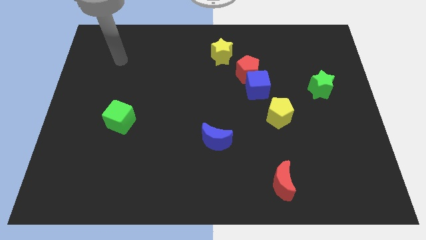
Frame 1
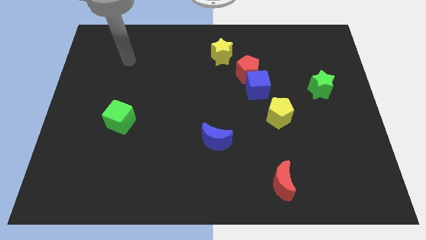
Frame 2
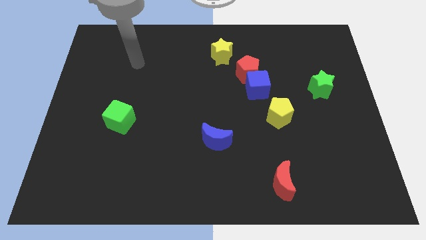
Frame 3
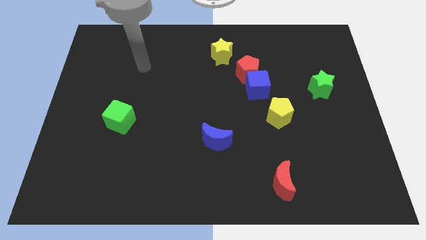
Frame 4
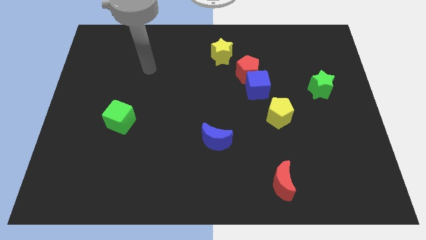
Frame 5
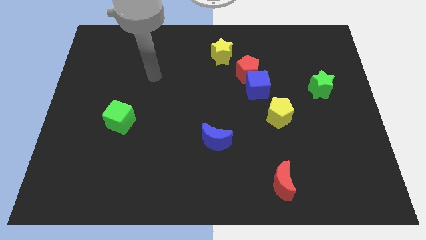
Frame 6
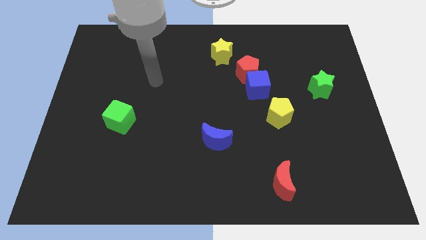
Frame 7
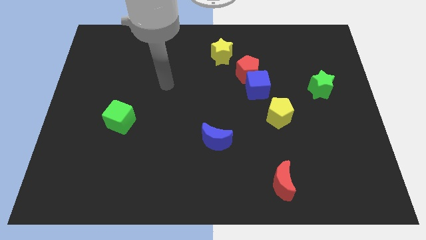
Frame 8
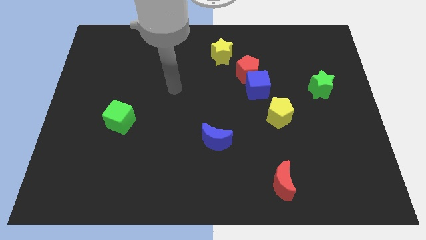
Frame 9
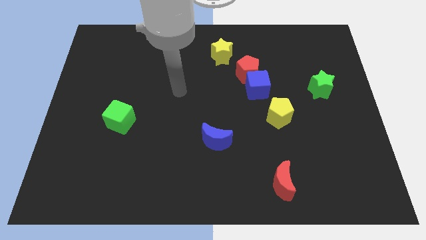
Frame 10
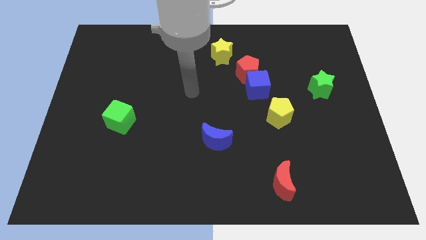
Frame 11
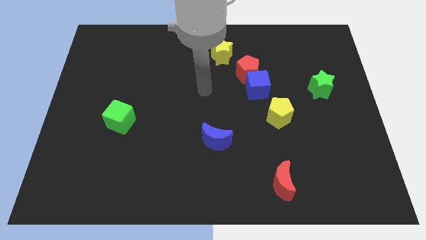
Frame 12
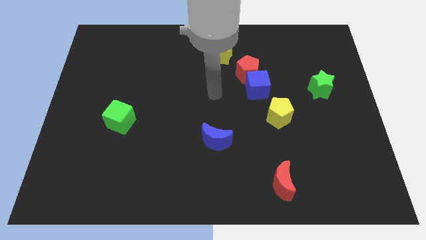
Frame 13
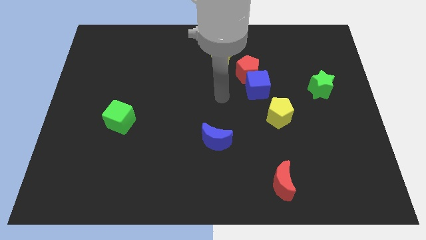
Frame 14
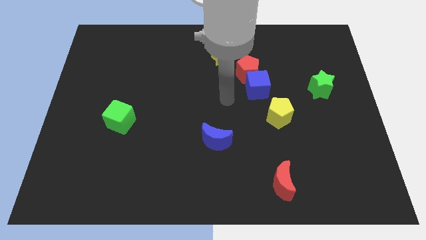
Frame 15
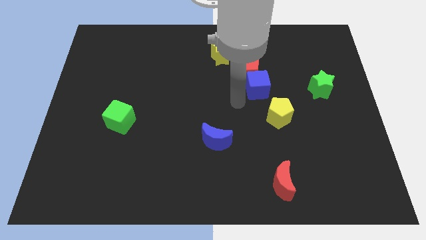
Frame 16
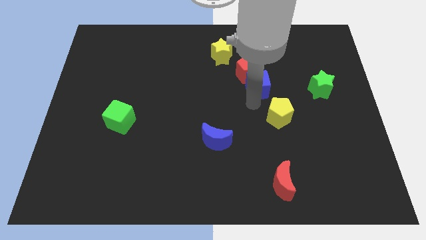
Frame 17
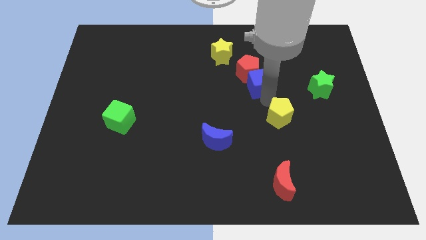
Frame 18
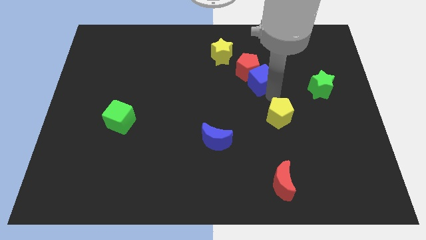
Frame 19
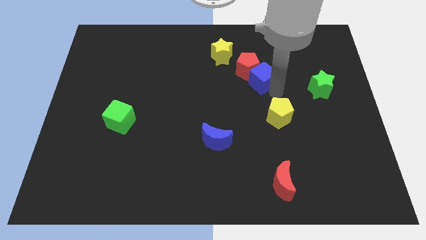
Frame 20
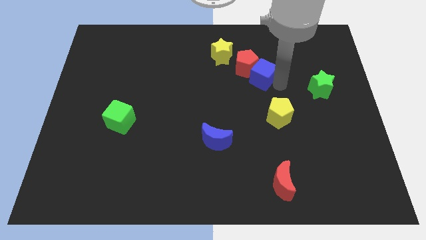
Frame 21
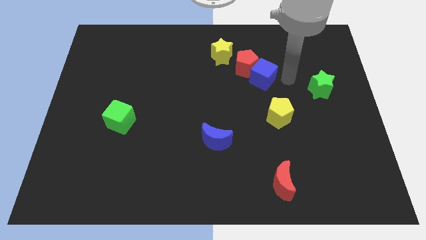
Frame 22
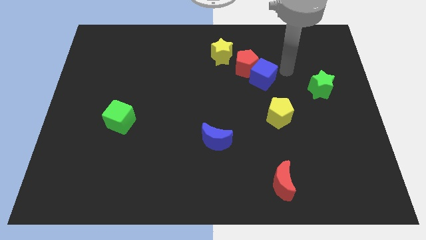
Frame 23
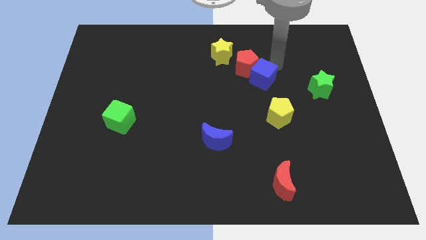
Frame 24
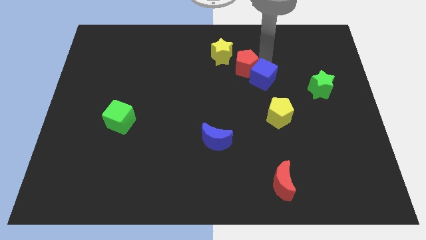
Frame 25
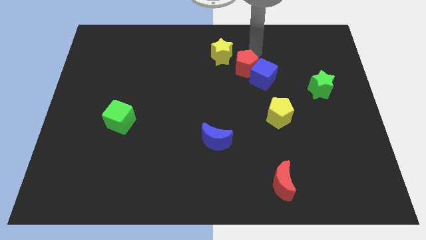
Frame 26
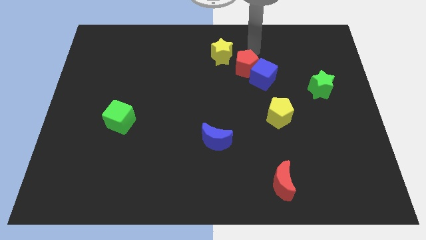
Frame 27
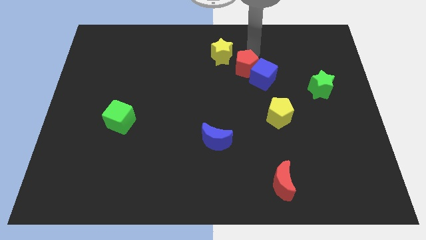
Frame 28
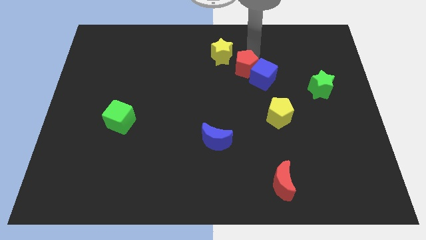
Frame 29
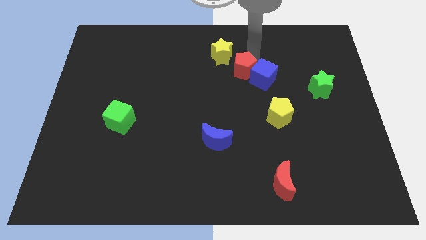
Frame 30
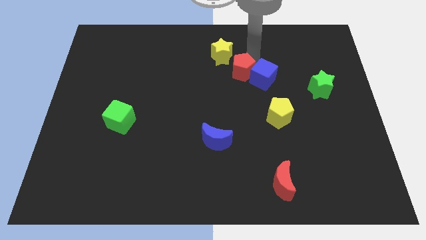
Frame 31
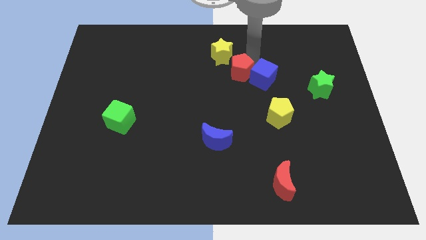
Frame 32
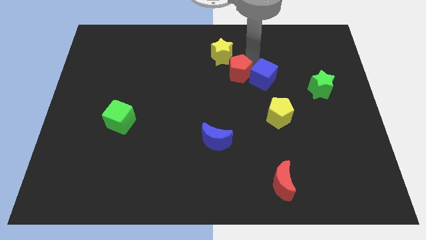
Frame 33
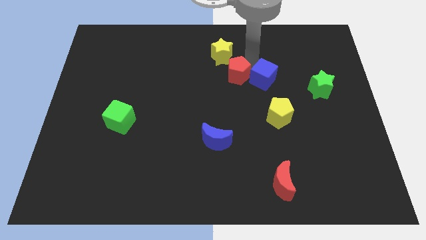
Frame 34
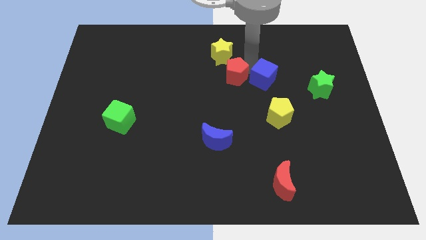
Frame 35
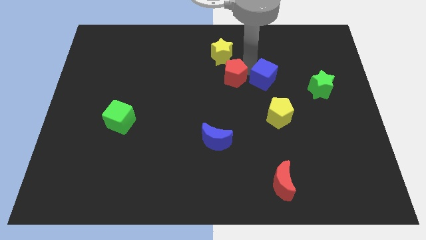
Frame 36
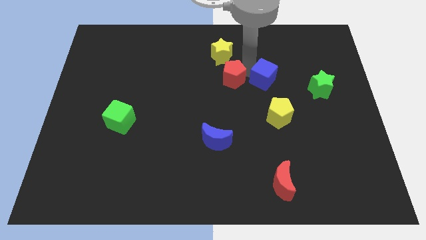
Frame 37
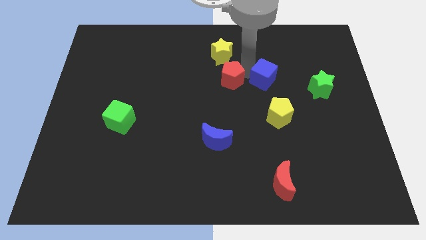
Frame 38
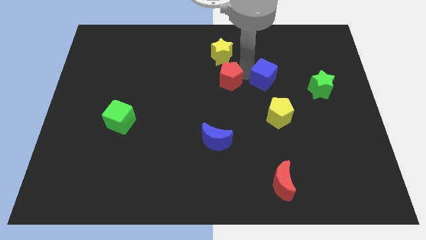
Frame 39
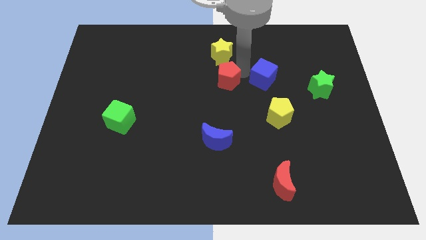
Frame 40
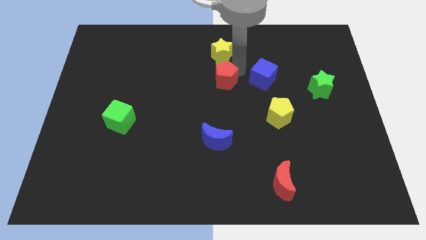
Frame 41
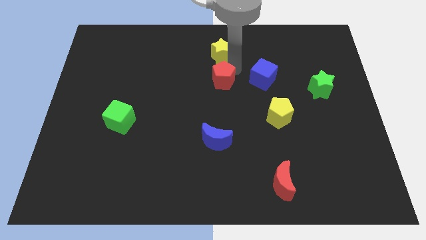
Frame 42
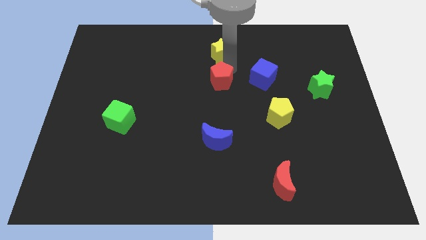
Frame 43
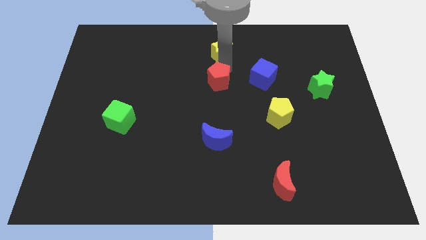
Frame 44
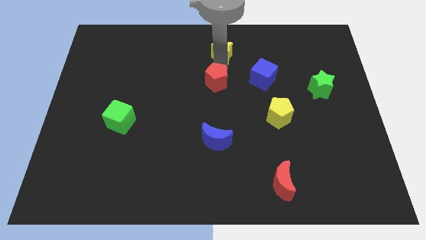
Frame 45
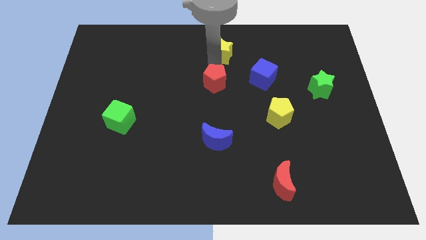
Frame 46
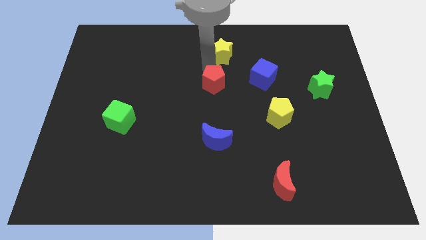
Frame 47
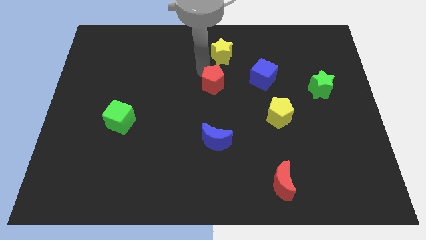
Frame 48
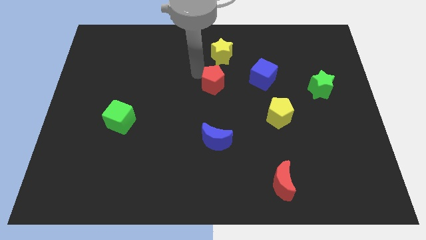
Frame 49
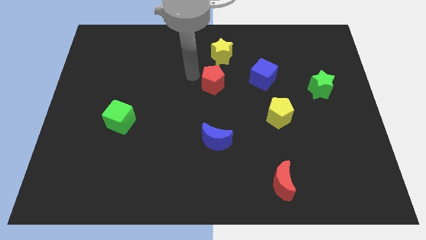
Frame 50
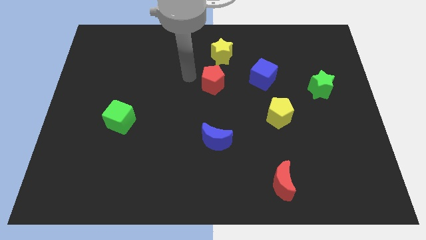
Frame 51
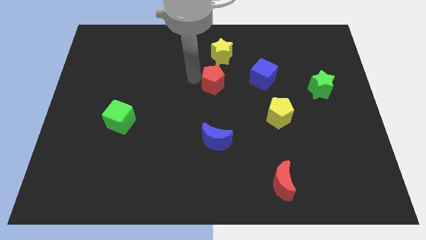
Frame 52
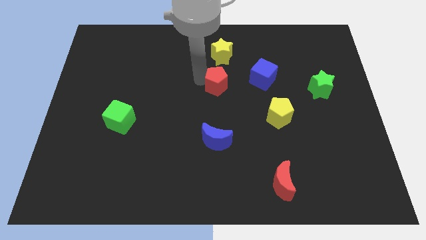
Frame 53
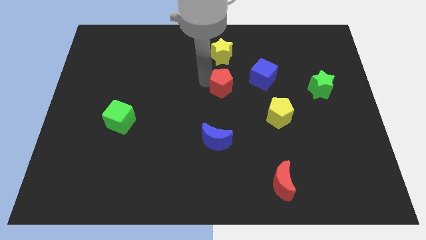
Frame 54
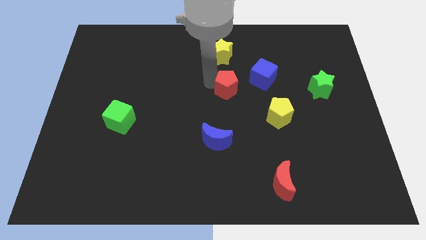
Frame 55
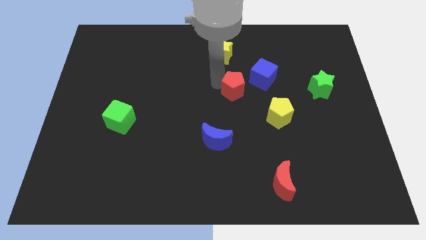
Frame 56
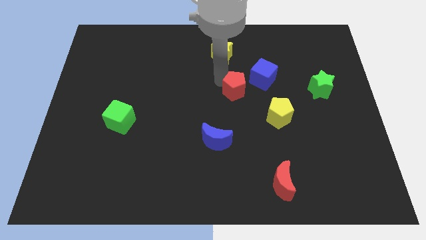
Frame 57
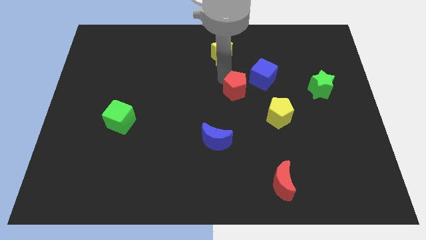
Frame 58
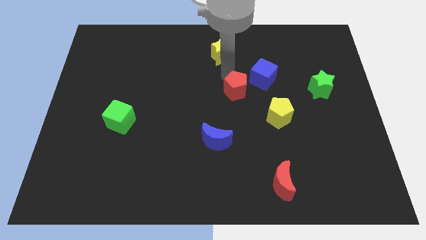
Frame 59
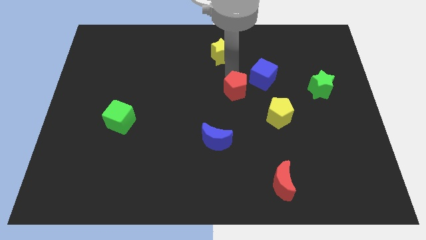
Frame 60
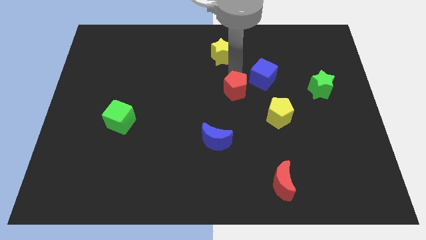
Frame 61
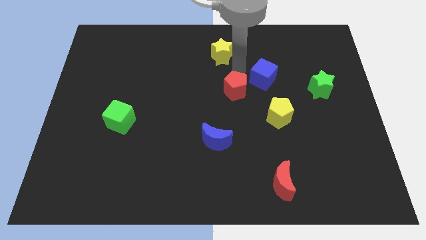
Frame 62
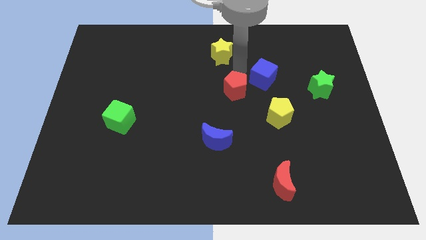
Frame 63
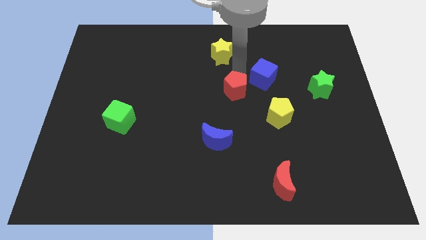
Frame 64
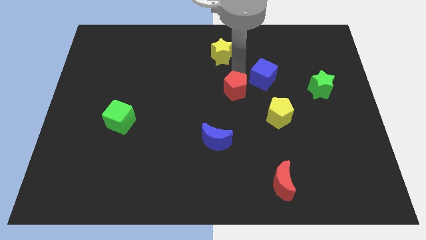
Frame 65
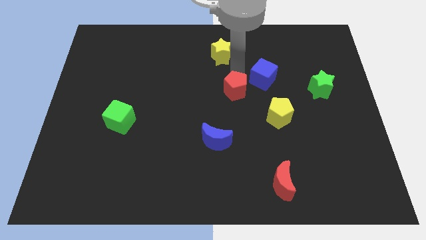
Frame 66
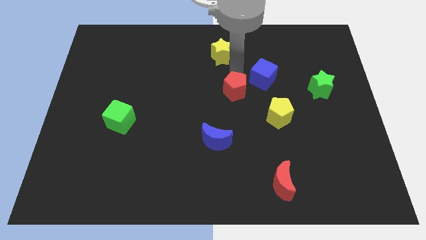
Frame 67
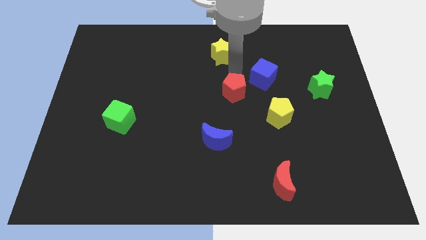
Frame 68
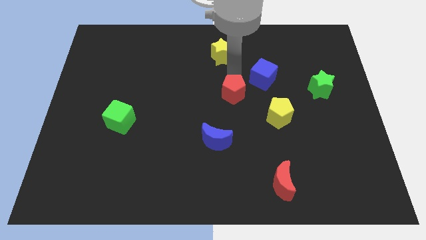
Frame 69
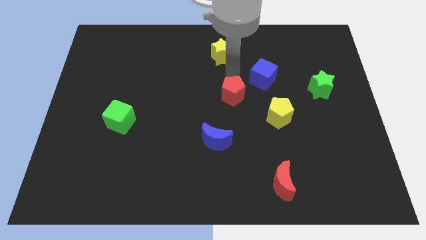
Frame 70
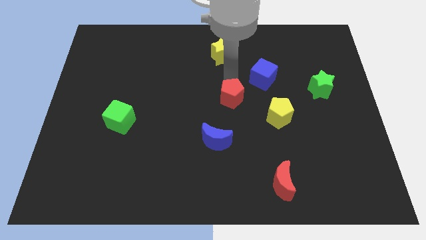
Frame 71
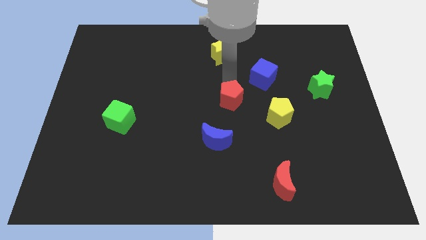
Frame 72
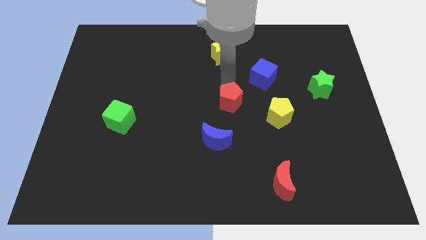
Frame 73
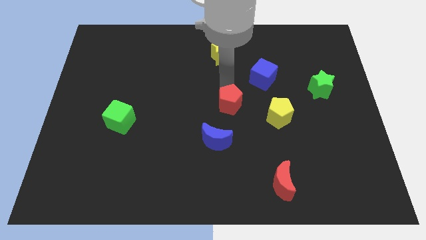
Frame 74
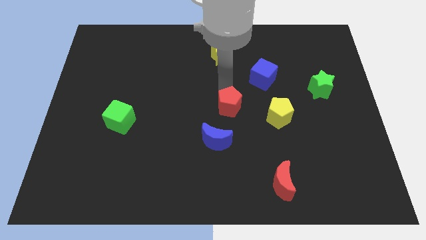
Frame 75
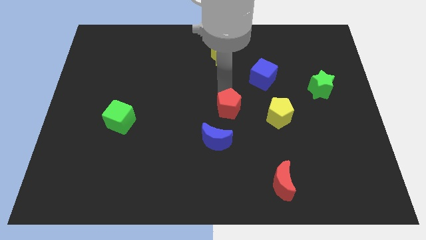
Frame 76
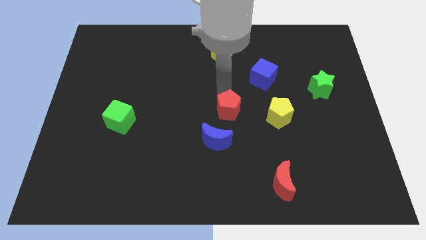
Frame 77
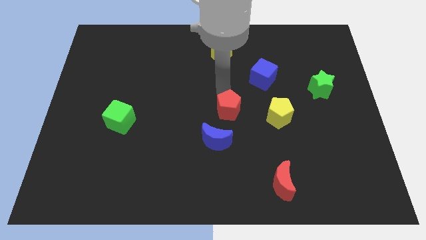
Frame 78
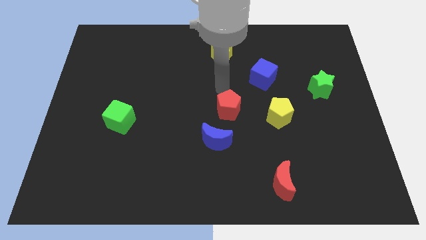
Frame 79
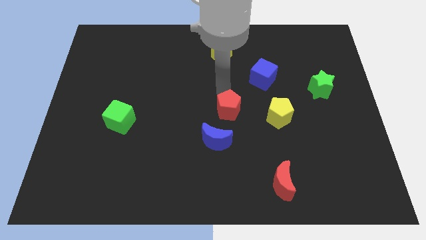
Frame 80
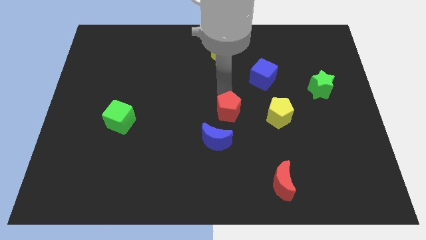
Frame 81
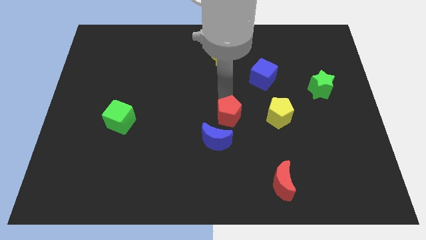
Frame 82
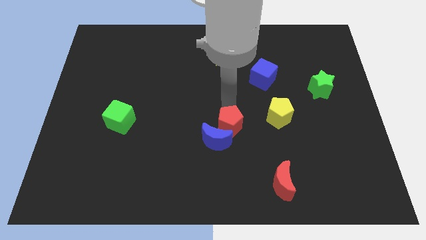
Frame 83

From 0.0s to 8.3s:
push the red pentagon to the blue moon
